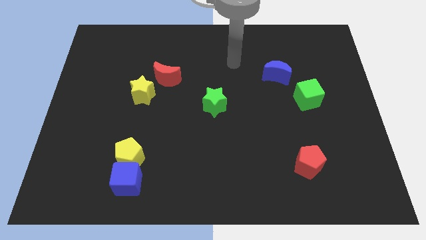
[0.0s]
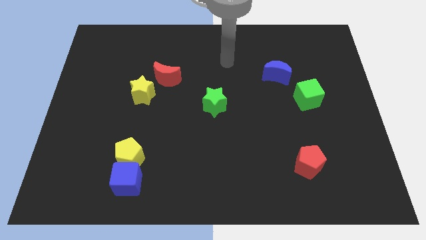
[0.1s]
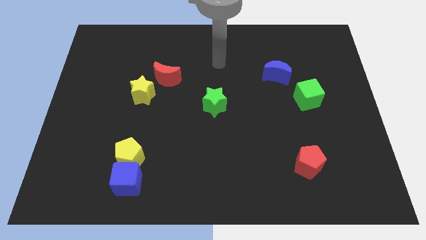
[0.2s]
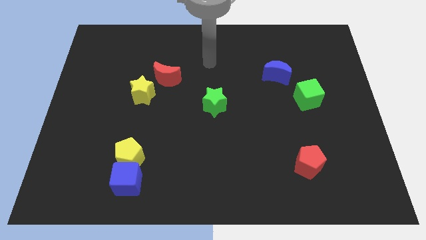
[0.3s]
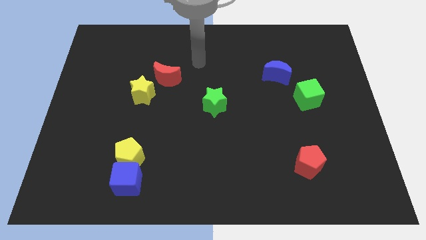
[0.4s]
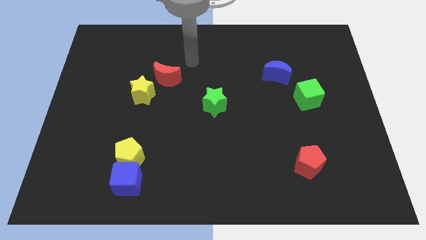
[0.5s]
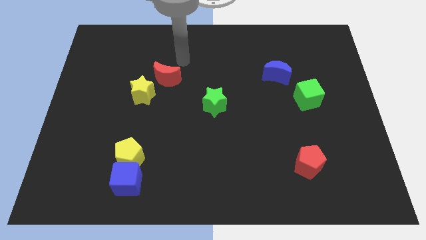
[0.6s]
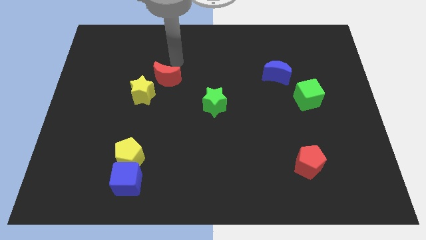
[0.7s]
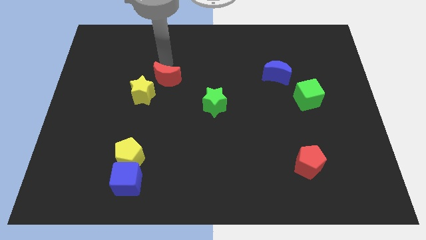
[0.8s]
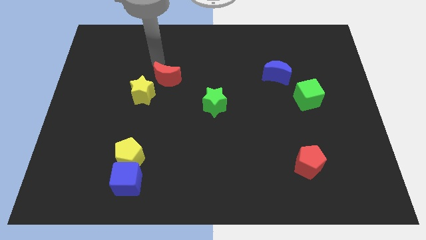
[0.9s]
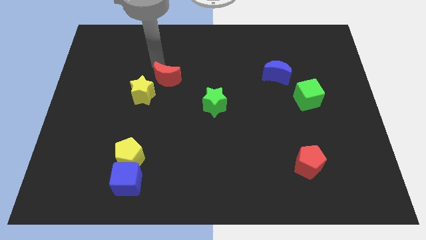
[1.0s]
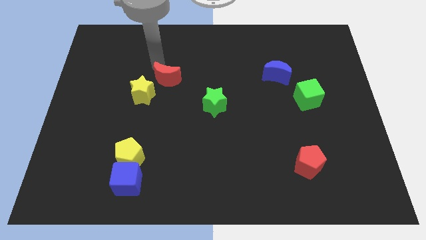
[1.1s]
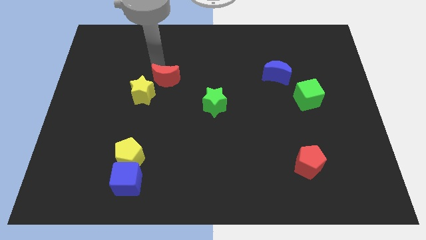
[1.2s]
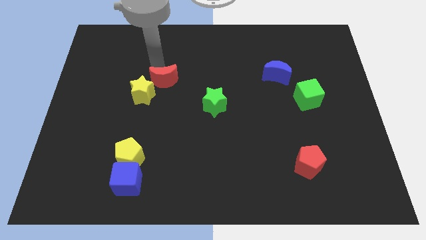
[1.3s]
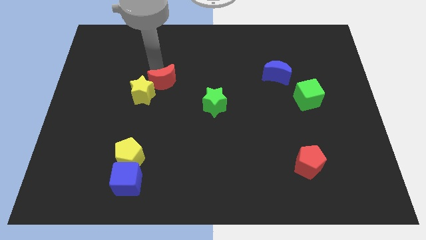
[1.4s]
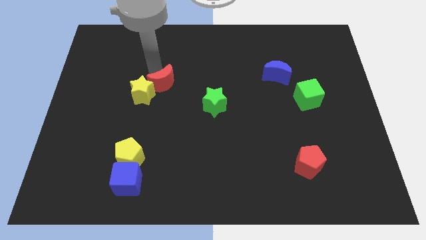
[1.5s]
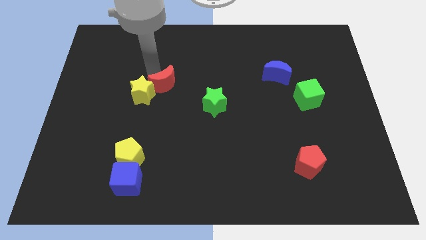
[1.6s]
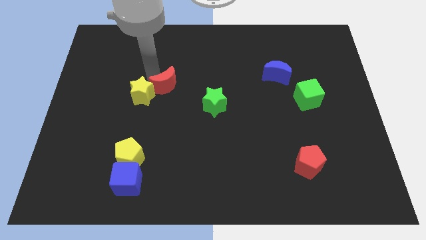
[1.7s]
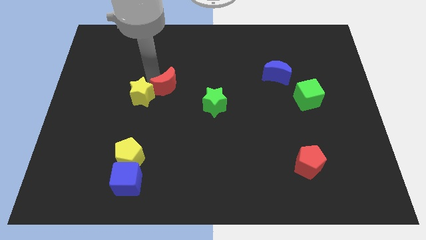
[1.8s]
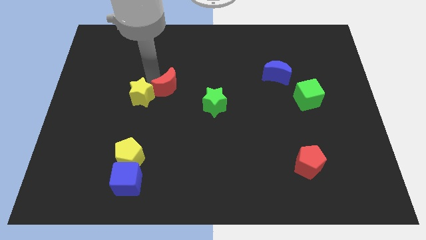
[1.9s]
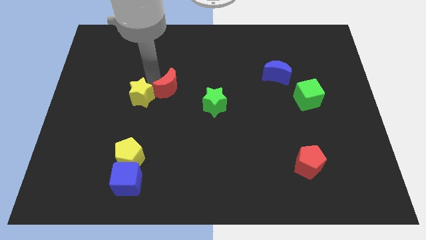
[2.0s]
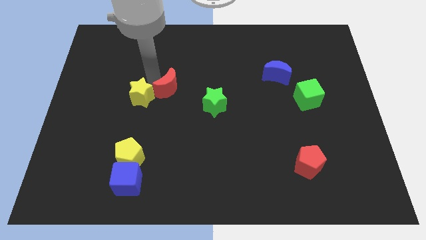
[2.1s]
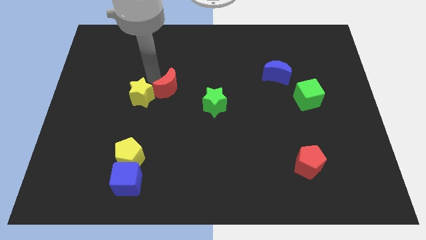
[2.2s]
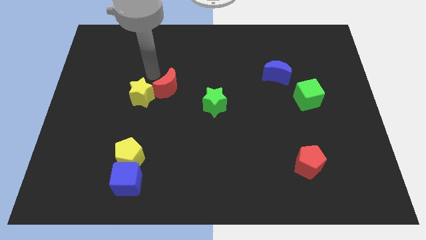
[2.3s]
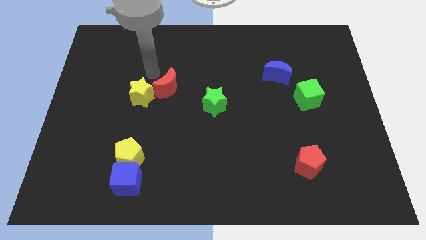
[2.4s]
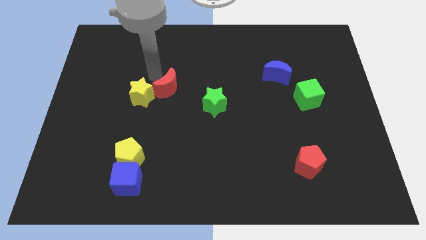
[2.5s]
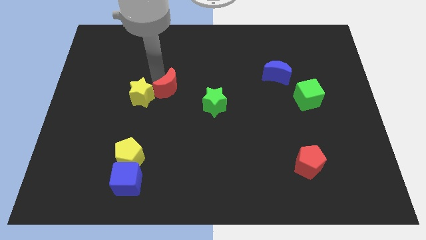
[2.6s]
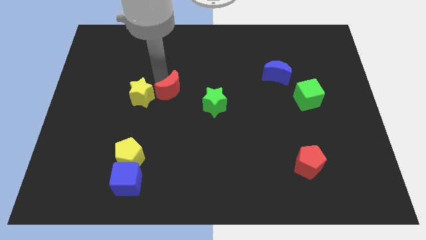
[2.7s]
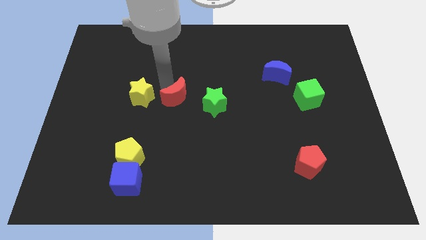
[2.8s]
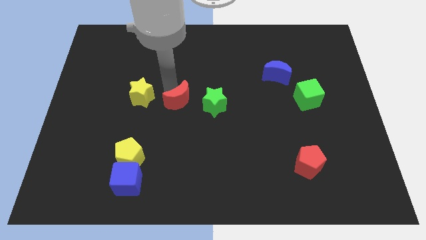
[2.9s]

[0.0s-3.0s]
push the red moon slightly down and right diagonally

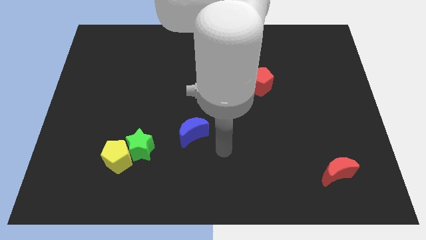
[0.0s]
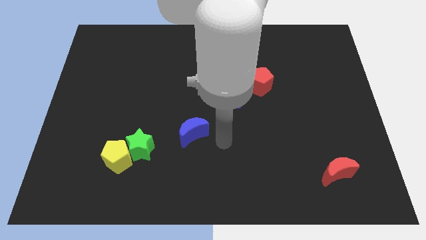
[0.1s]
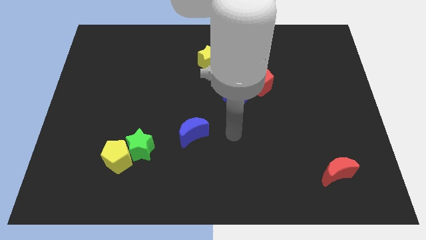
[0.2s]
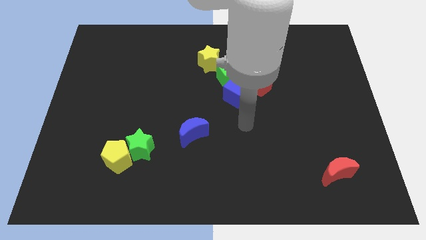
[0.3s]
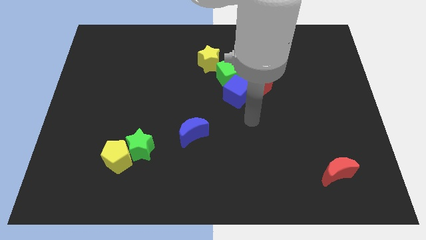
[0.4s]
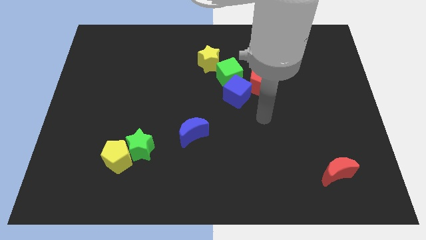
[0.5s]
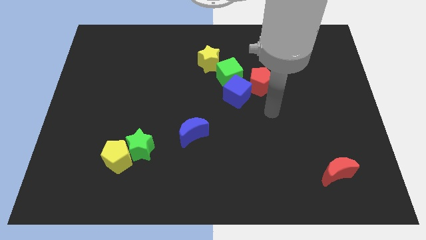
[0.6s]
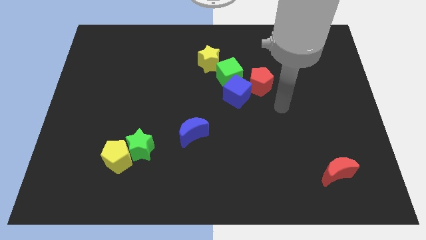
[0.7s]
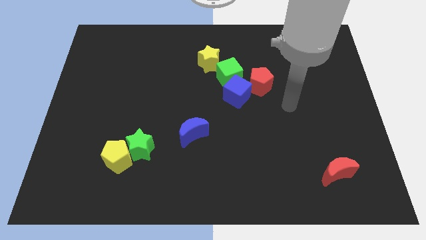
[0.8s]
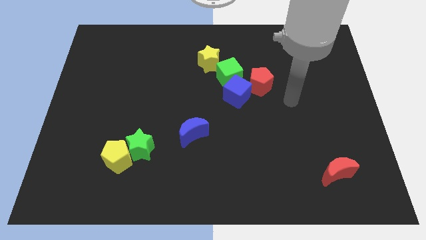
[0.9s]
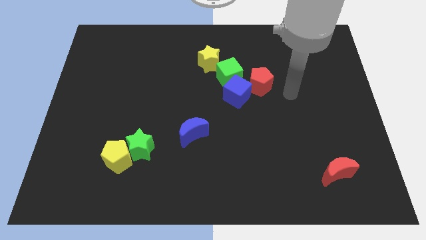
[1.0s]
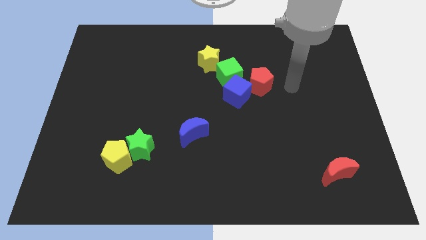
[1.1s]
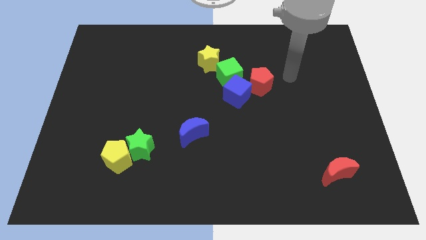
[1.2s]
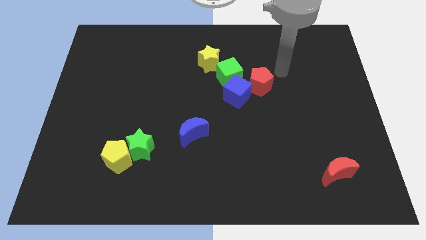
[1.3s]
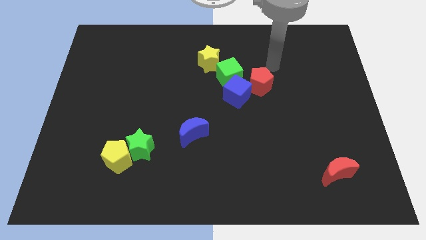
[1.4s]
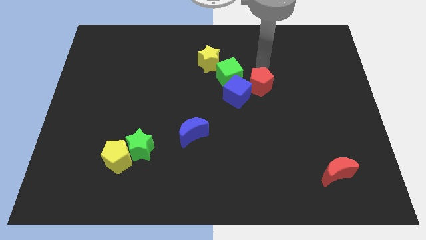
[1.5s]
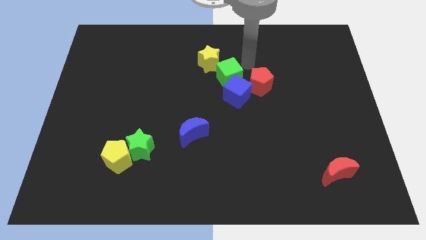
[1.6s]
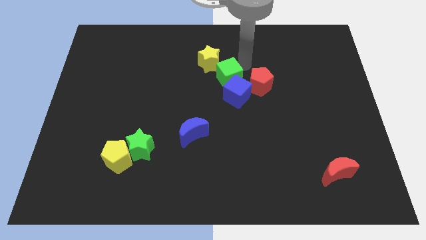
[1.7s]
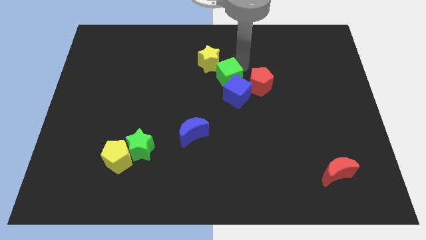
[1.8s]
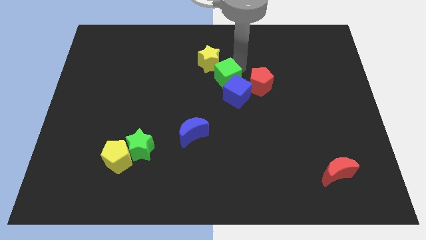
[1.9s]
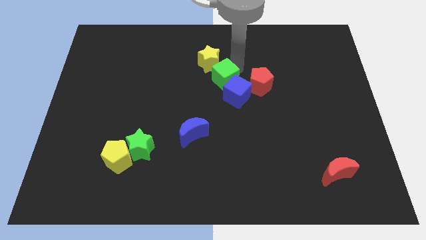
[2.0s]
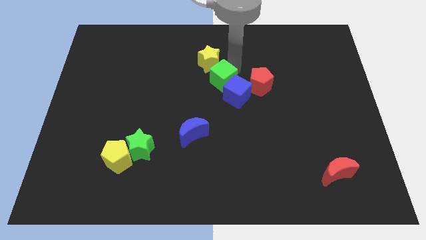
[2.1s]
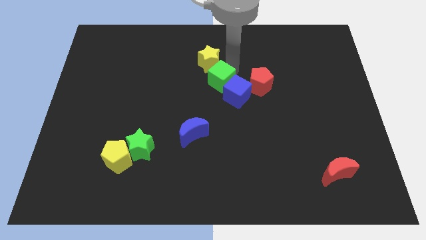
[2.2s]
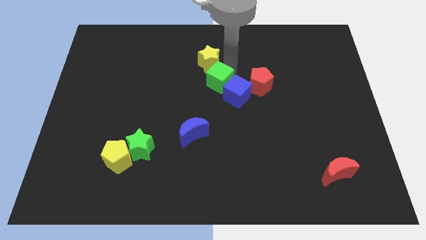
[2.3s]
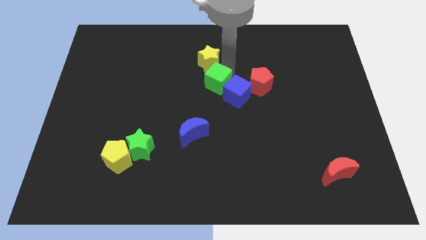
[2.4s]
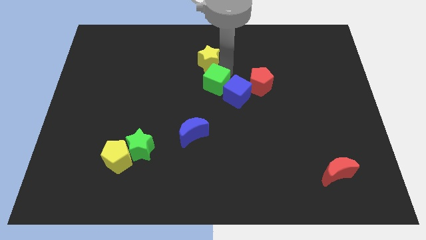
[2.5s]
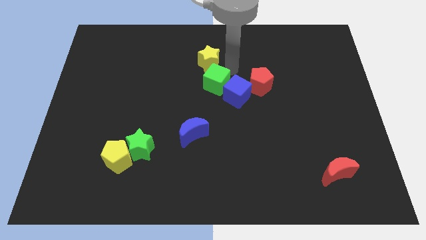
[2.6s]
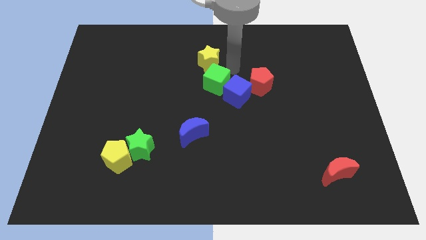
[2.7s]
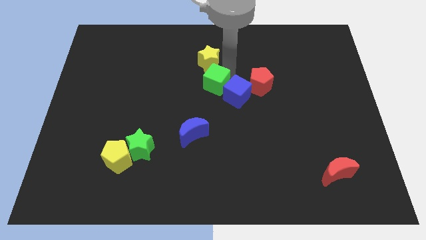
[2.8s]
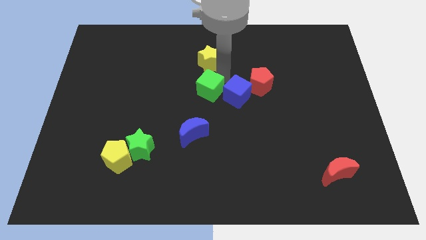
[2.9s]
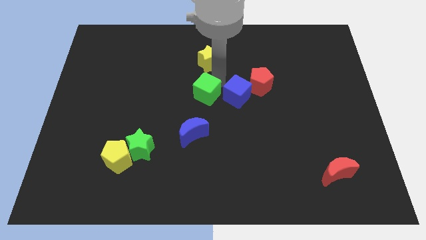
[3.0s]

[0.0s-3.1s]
slide the green cube down and left a little

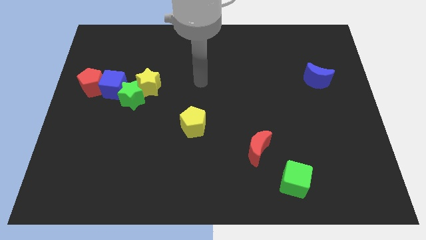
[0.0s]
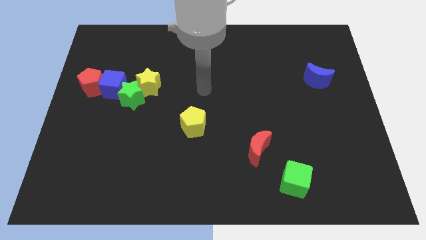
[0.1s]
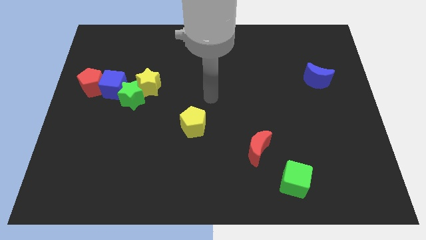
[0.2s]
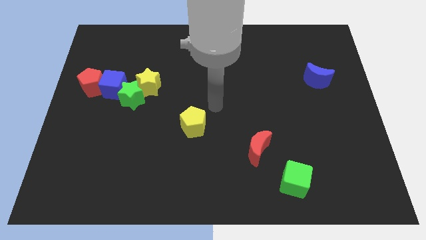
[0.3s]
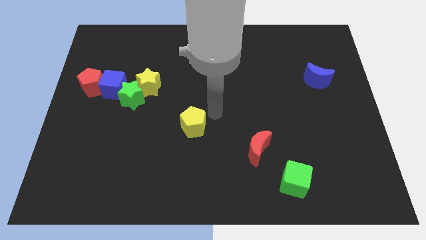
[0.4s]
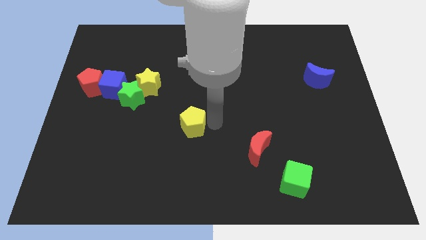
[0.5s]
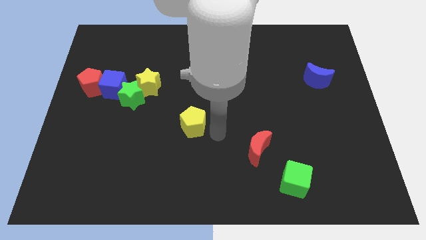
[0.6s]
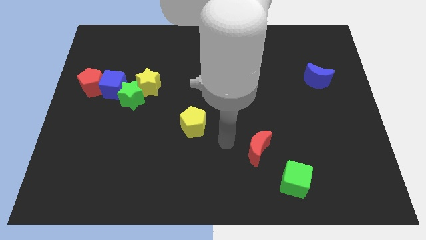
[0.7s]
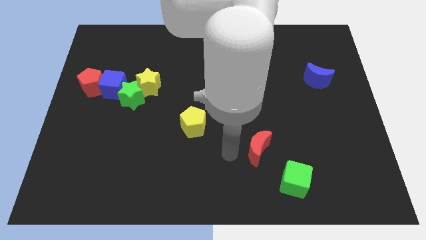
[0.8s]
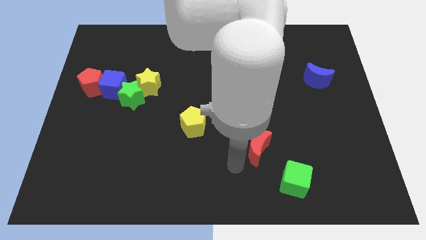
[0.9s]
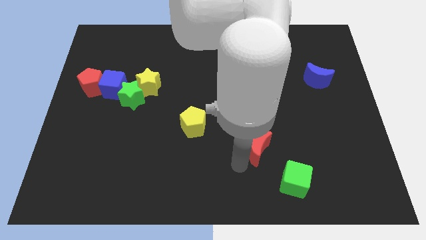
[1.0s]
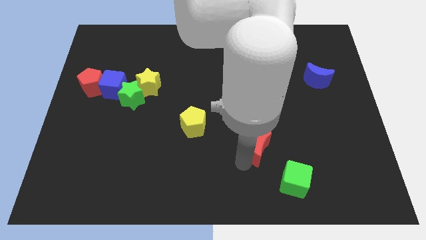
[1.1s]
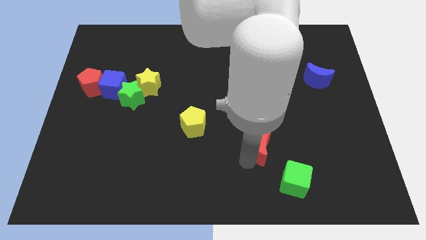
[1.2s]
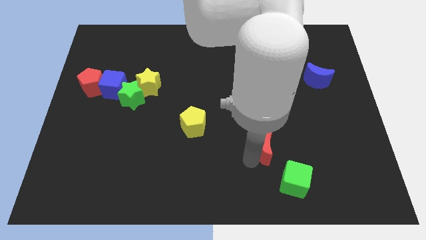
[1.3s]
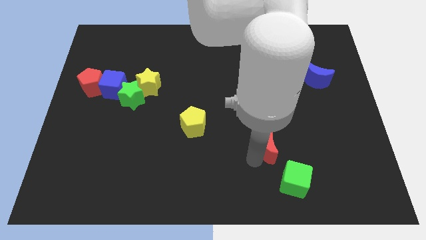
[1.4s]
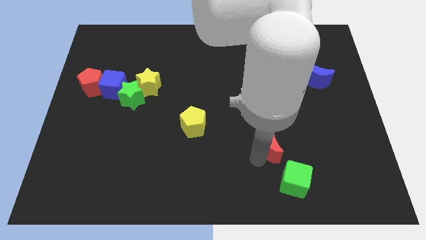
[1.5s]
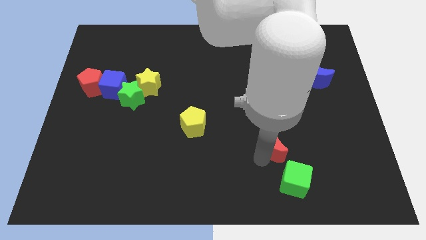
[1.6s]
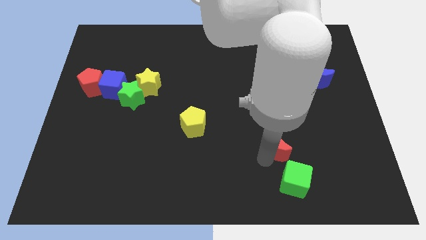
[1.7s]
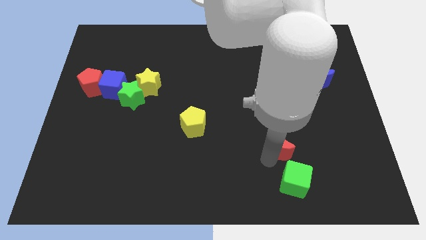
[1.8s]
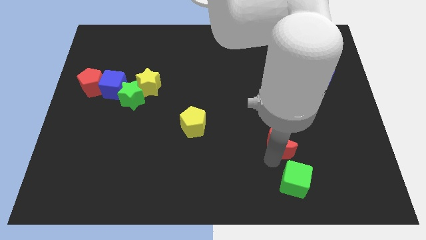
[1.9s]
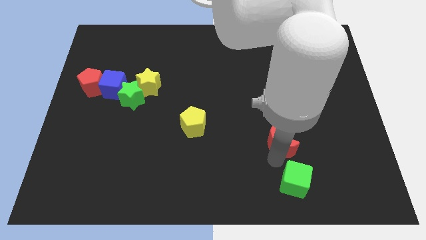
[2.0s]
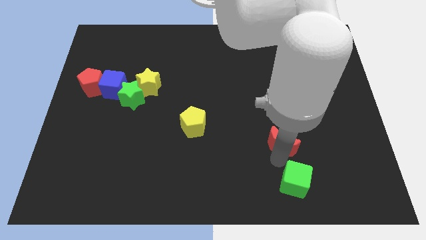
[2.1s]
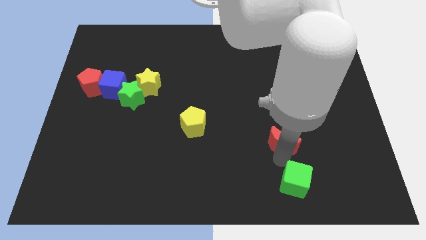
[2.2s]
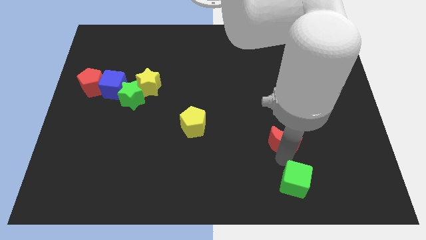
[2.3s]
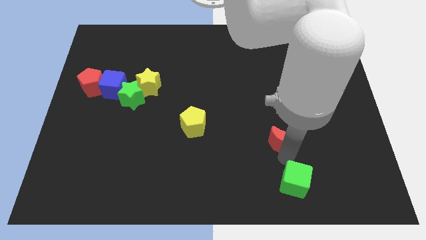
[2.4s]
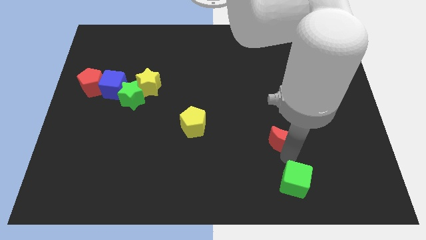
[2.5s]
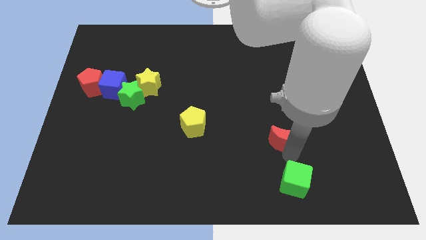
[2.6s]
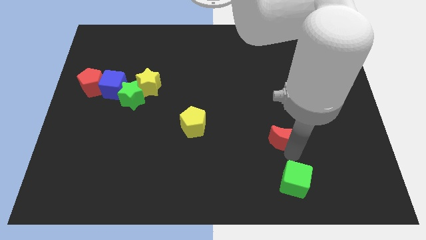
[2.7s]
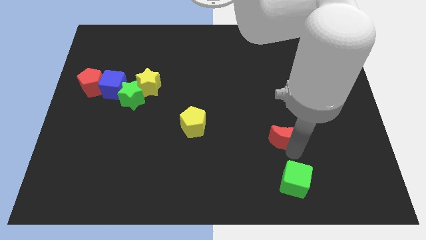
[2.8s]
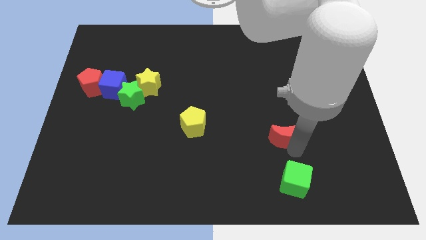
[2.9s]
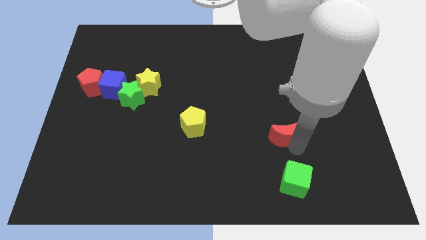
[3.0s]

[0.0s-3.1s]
slide the red moon upwards and to the right a bit
